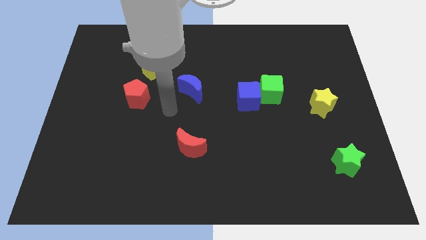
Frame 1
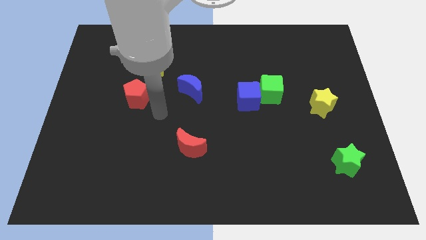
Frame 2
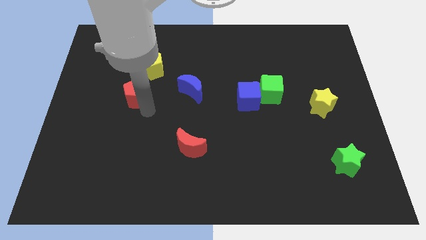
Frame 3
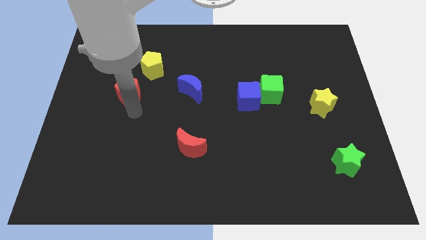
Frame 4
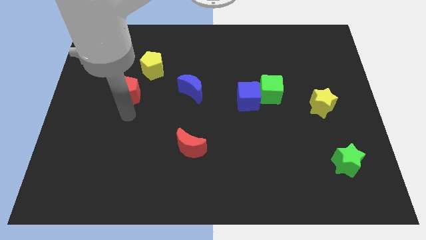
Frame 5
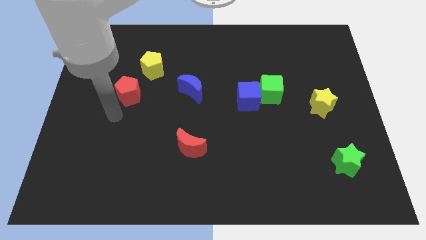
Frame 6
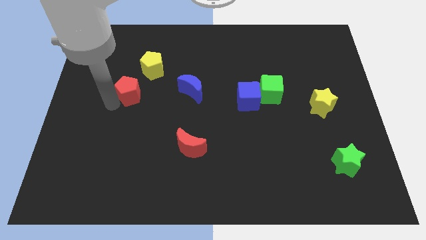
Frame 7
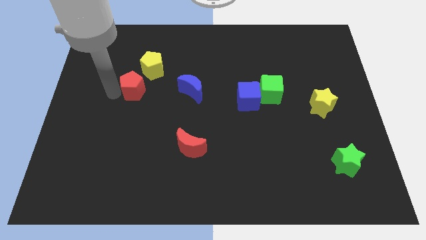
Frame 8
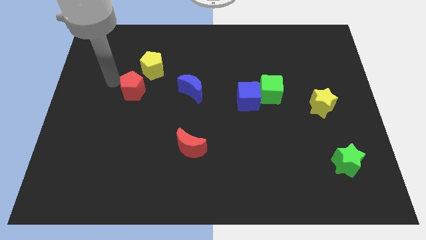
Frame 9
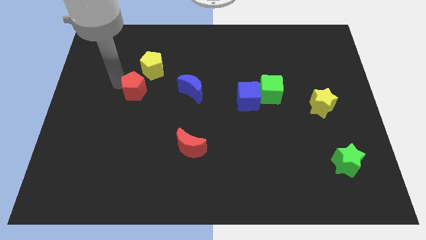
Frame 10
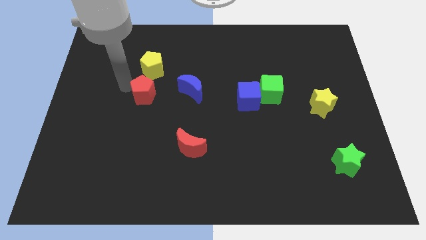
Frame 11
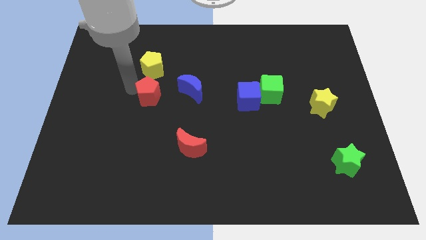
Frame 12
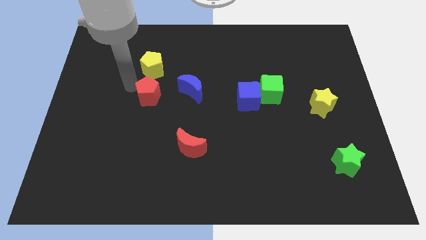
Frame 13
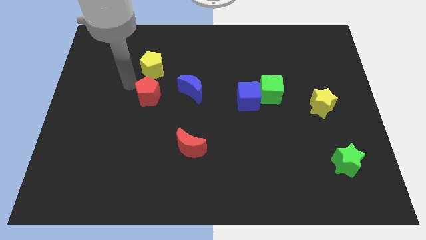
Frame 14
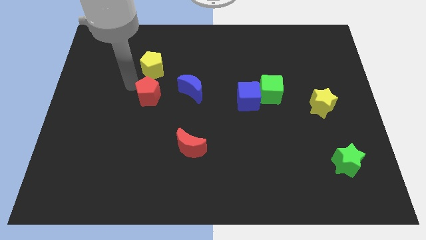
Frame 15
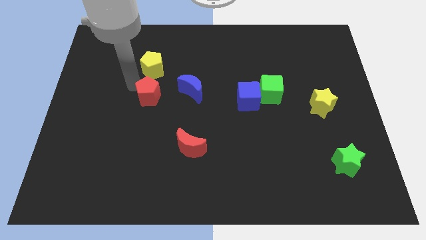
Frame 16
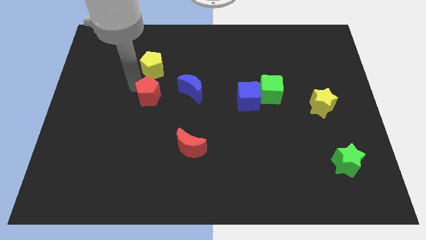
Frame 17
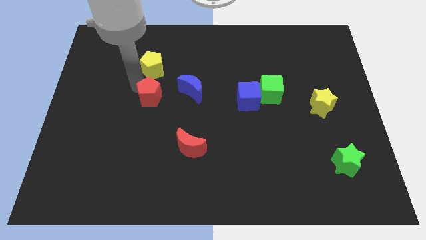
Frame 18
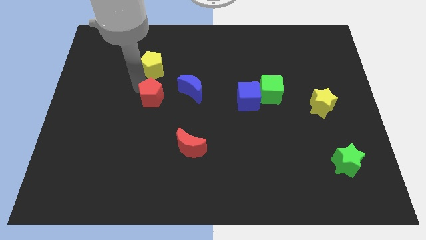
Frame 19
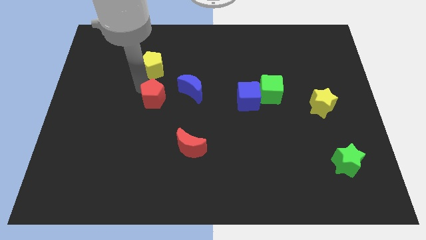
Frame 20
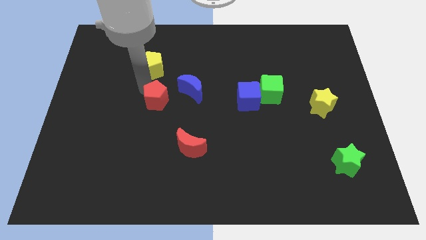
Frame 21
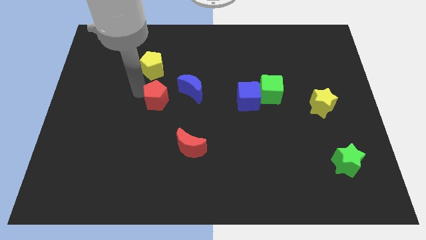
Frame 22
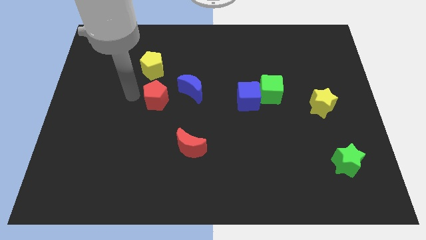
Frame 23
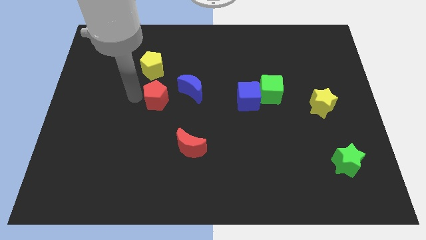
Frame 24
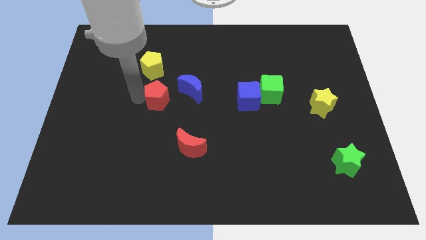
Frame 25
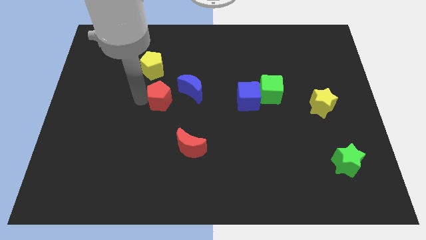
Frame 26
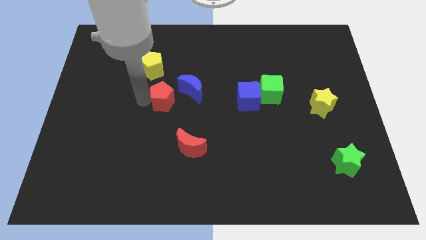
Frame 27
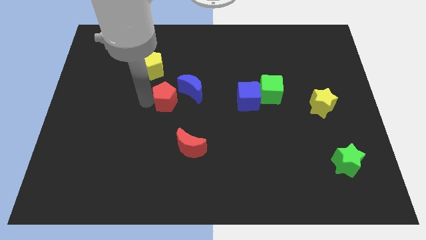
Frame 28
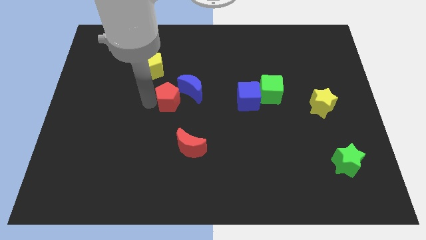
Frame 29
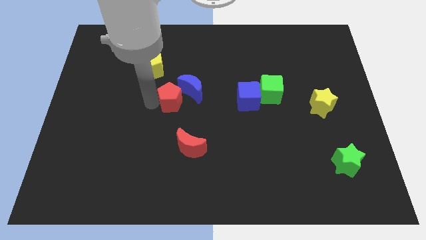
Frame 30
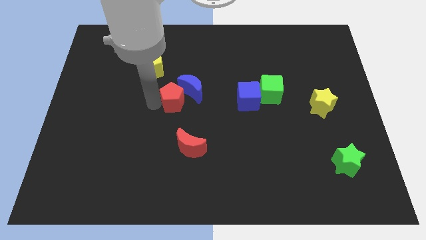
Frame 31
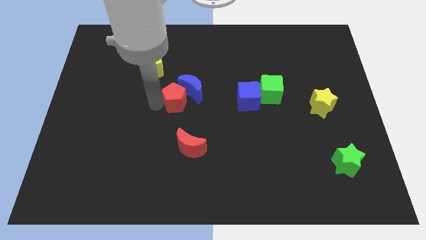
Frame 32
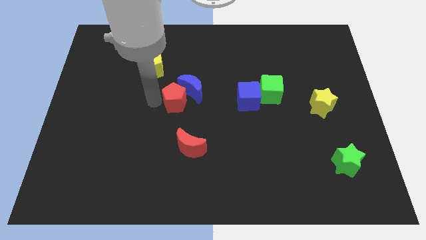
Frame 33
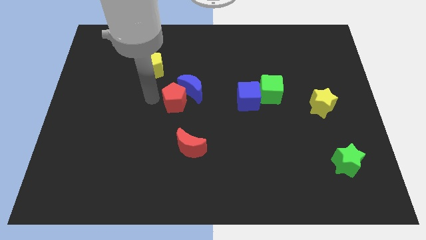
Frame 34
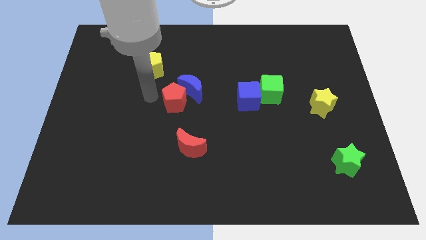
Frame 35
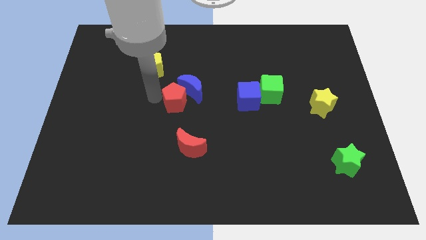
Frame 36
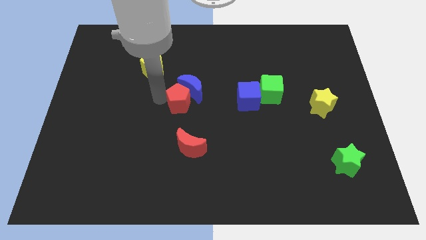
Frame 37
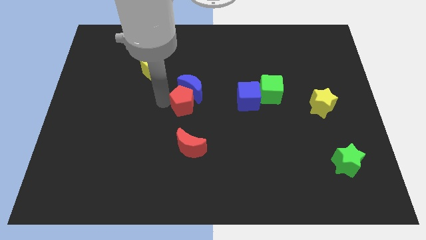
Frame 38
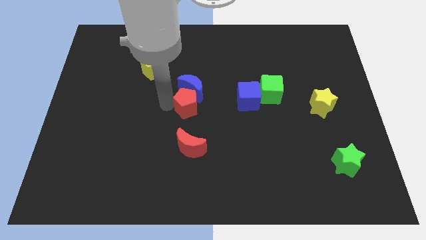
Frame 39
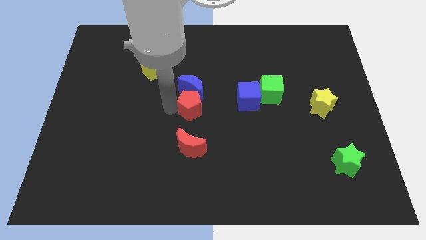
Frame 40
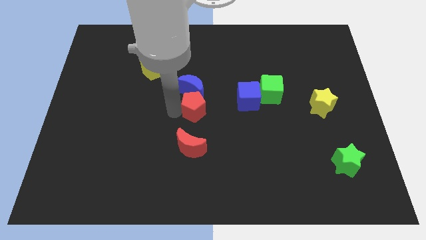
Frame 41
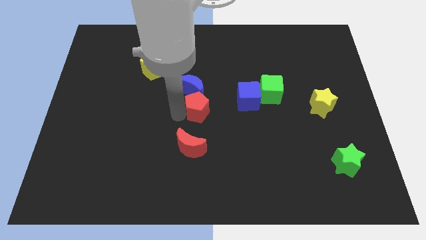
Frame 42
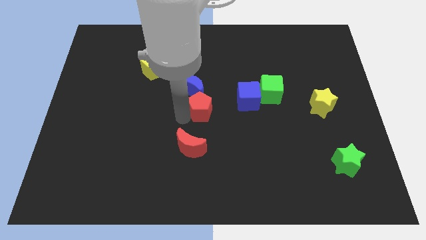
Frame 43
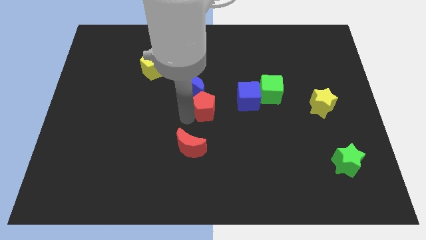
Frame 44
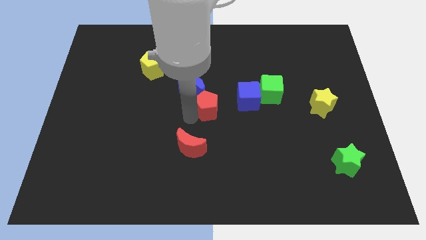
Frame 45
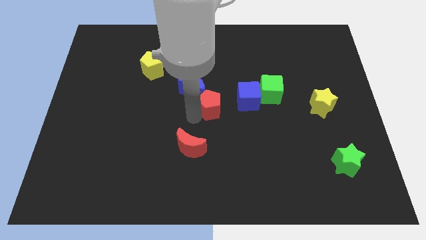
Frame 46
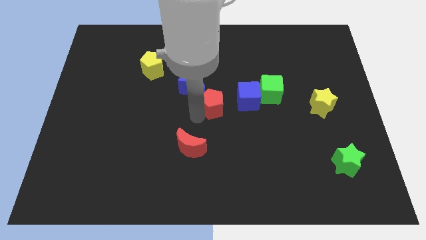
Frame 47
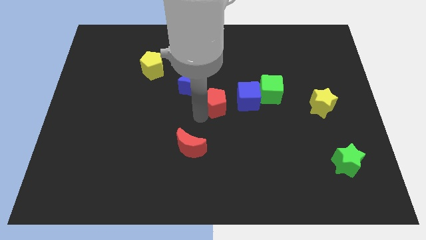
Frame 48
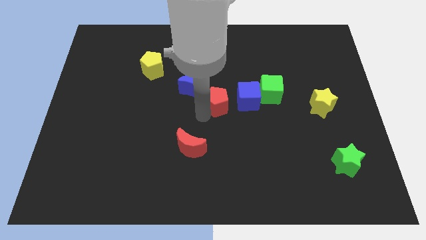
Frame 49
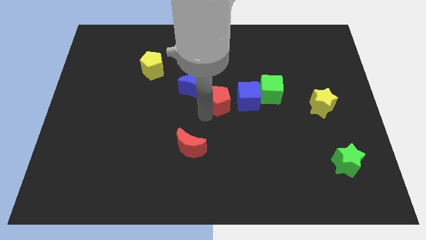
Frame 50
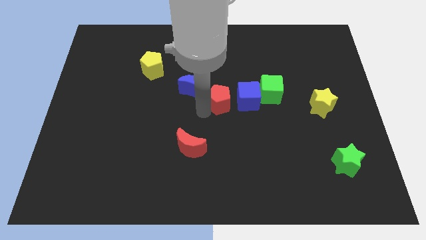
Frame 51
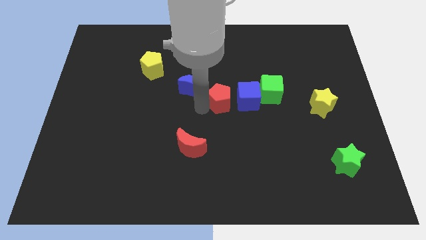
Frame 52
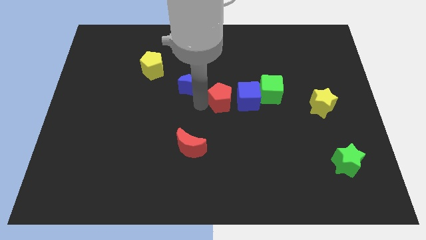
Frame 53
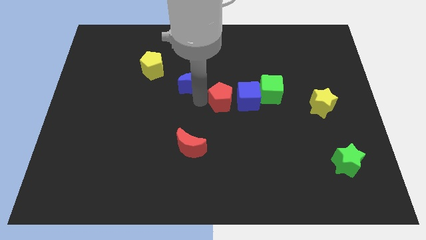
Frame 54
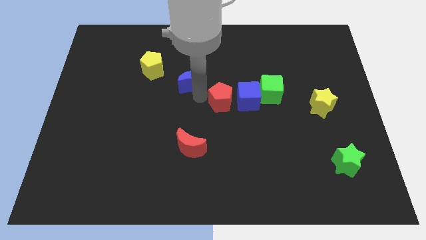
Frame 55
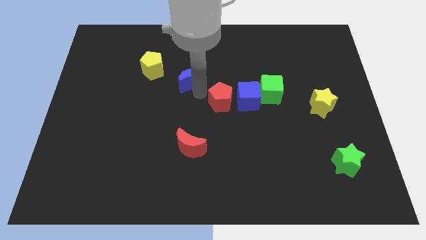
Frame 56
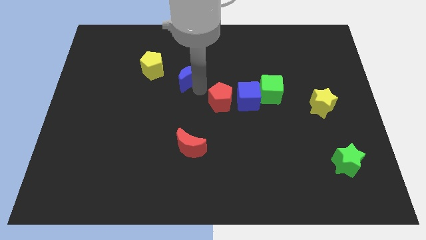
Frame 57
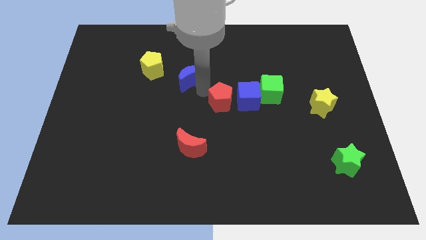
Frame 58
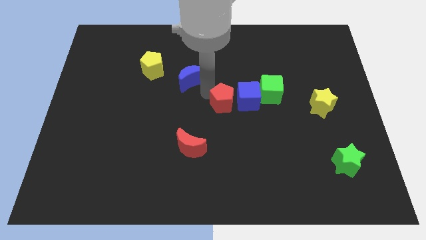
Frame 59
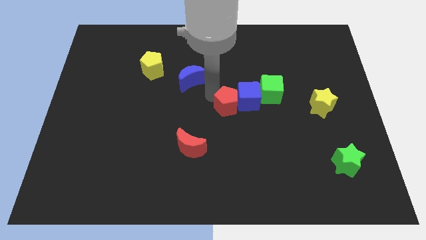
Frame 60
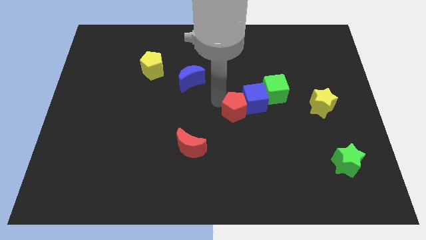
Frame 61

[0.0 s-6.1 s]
push the red pentagon to the bottom left side of the green cube
